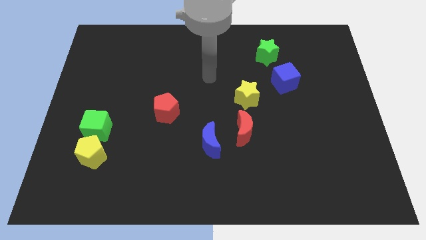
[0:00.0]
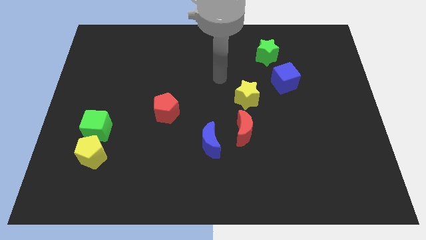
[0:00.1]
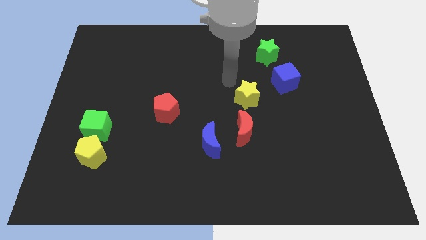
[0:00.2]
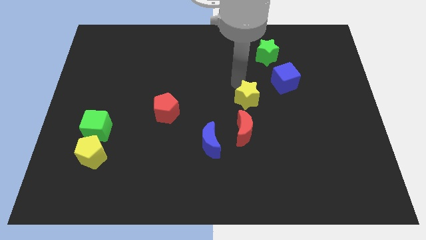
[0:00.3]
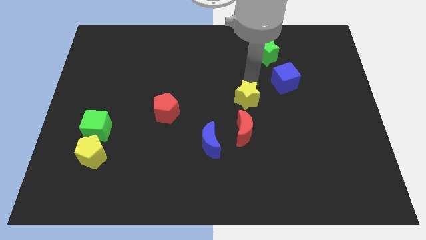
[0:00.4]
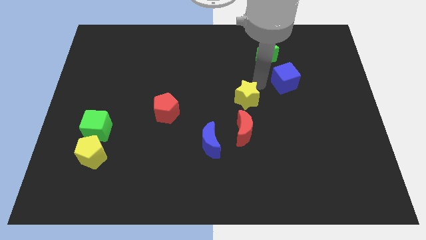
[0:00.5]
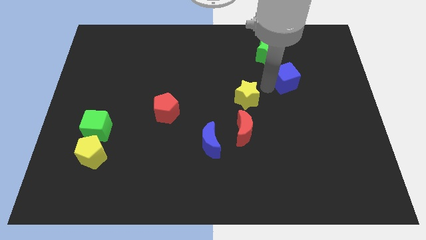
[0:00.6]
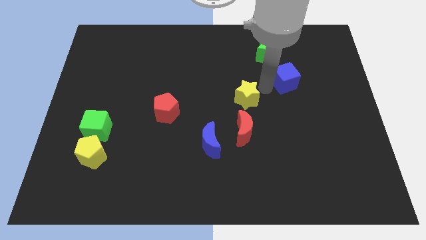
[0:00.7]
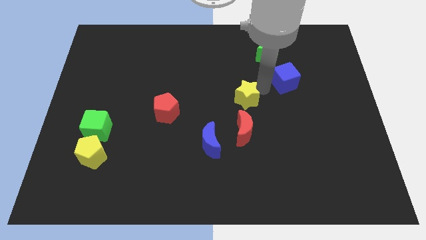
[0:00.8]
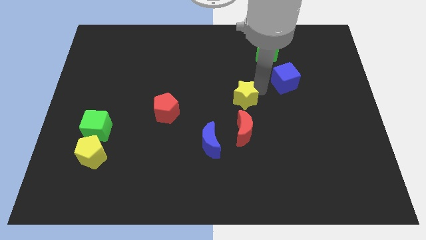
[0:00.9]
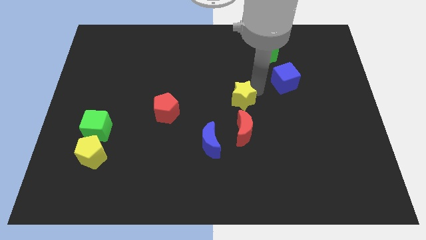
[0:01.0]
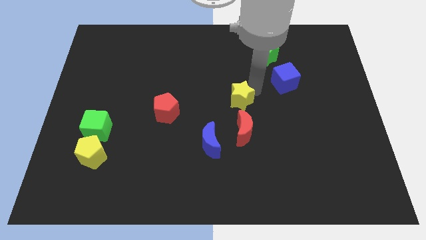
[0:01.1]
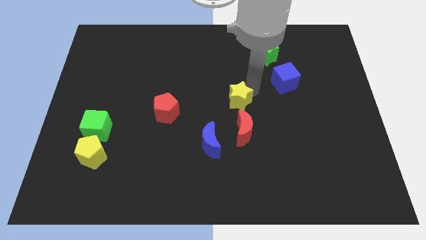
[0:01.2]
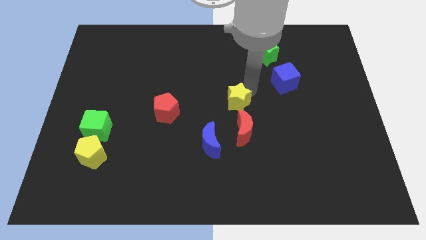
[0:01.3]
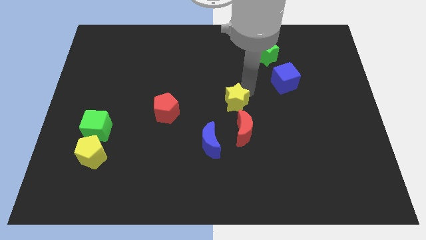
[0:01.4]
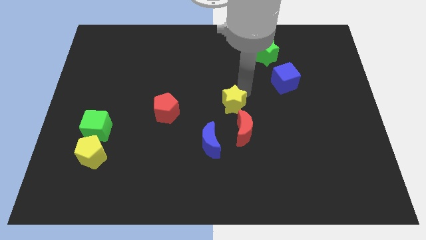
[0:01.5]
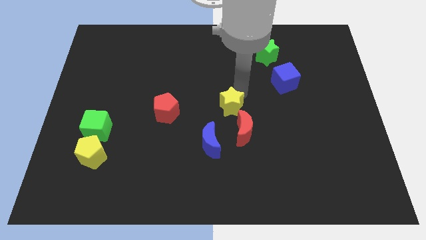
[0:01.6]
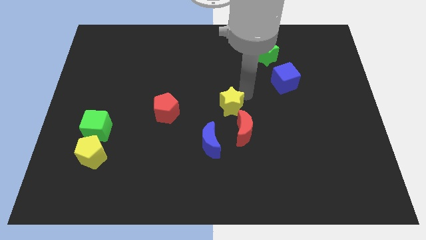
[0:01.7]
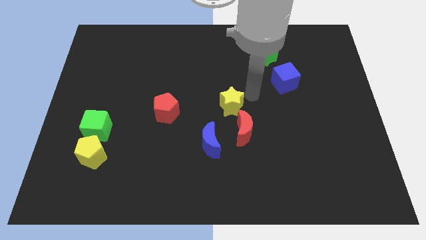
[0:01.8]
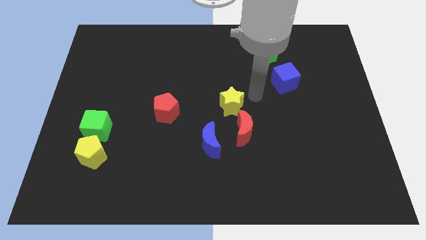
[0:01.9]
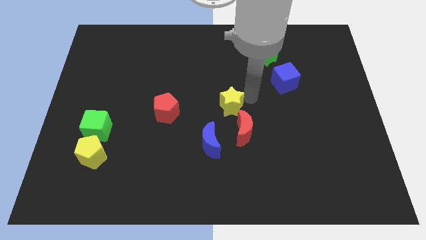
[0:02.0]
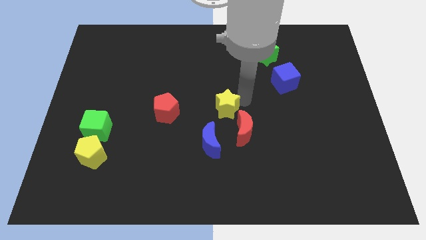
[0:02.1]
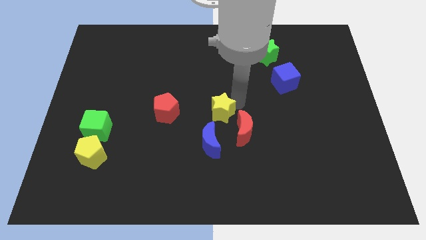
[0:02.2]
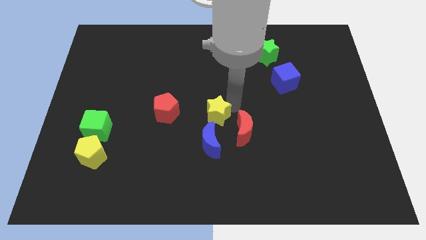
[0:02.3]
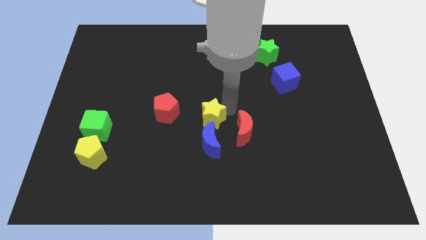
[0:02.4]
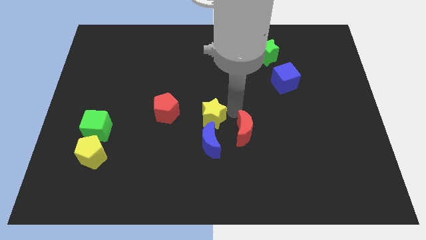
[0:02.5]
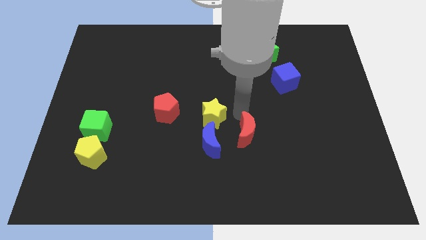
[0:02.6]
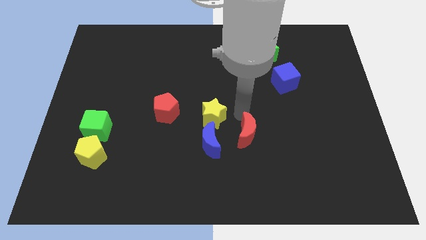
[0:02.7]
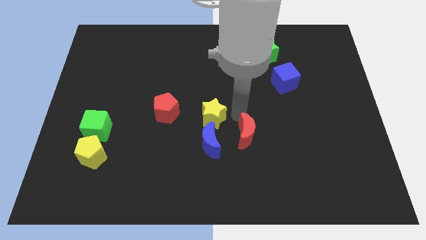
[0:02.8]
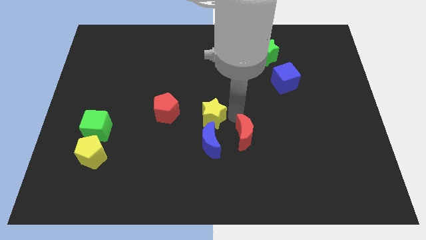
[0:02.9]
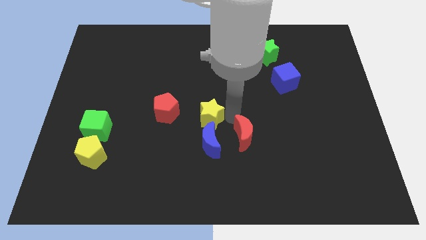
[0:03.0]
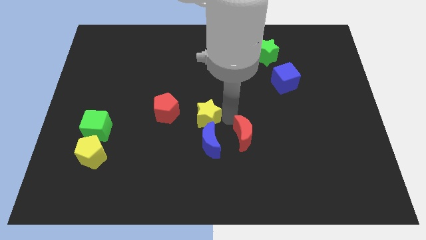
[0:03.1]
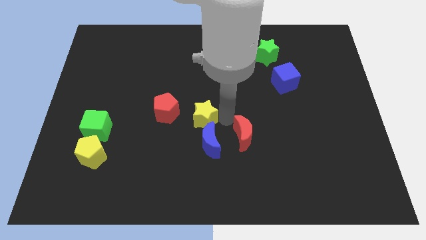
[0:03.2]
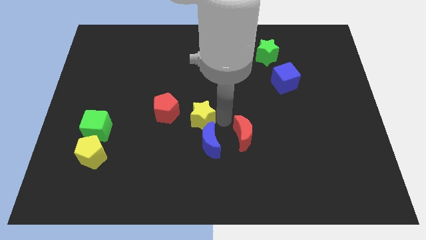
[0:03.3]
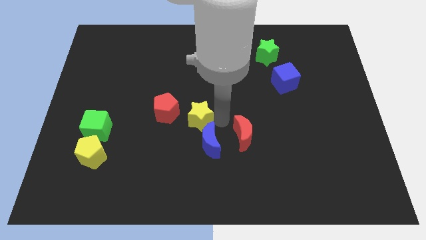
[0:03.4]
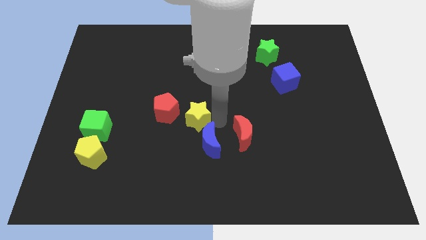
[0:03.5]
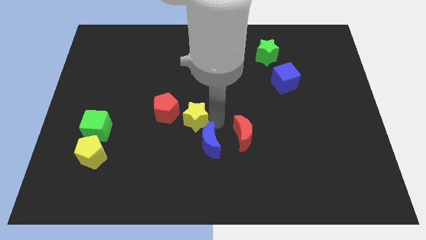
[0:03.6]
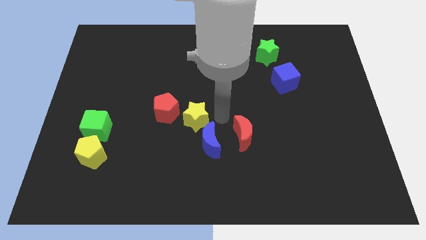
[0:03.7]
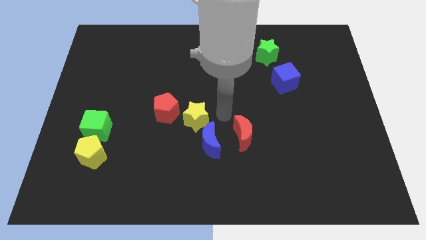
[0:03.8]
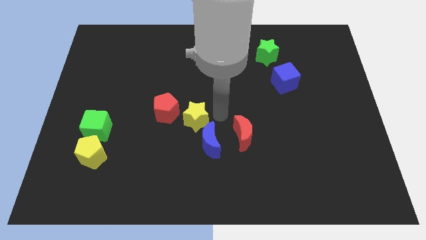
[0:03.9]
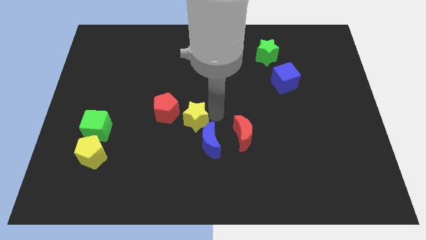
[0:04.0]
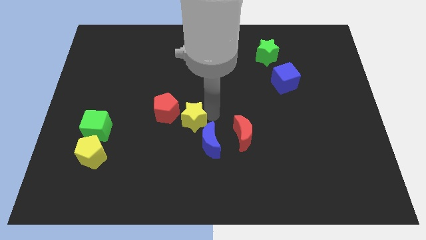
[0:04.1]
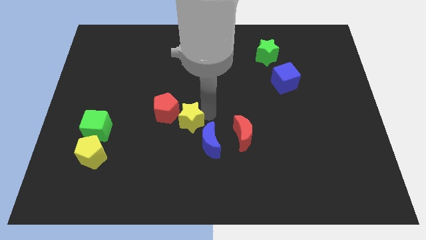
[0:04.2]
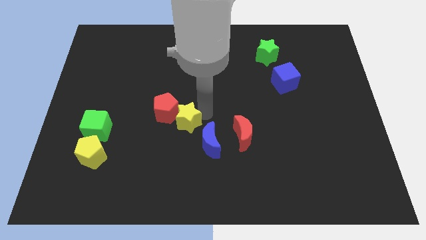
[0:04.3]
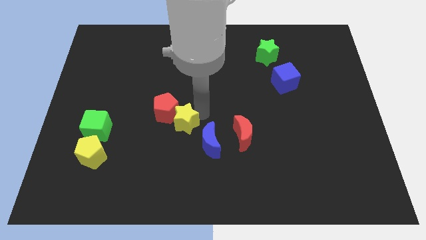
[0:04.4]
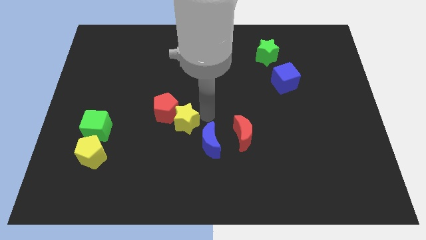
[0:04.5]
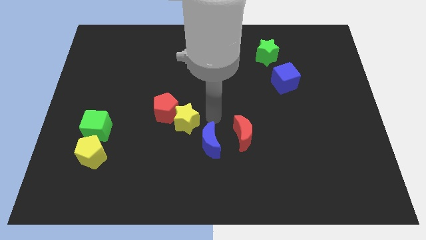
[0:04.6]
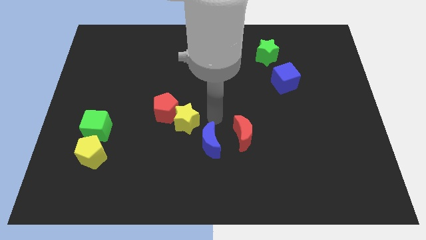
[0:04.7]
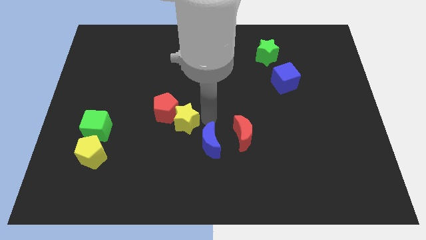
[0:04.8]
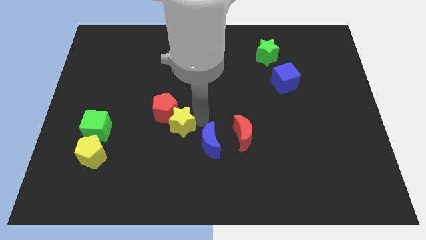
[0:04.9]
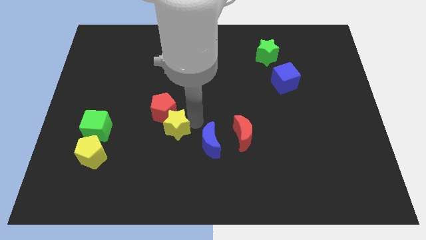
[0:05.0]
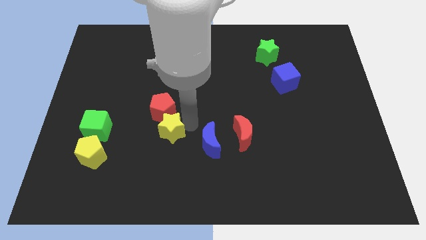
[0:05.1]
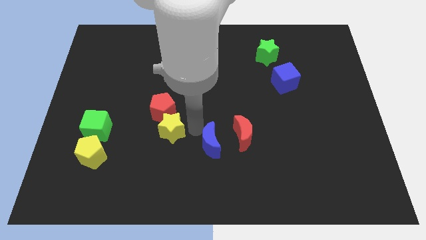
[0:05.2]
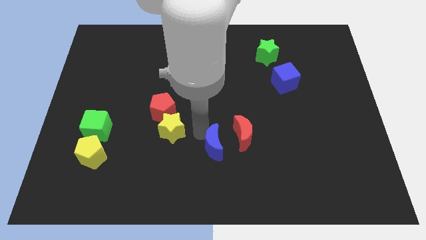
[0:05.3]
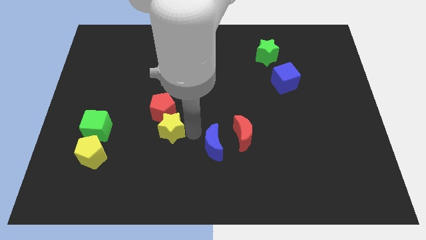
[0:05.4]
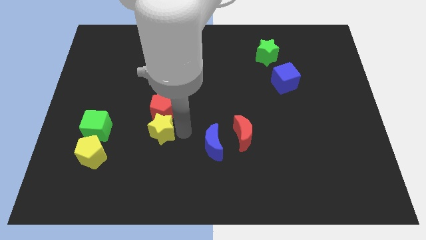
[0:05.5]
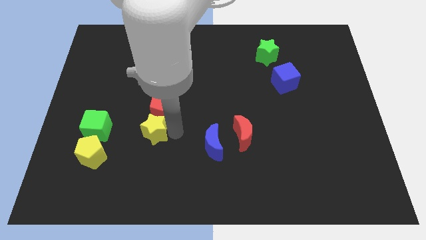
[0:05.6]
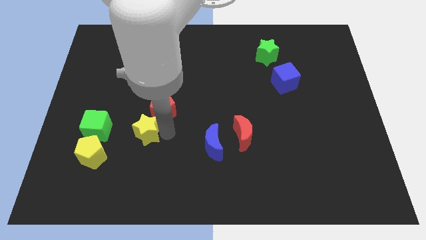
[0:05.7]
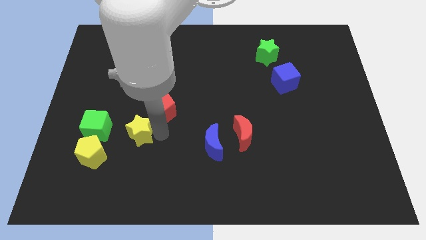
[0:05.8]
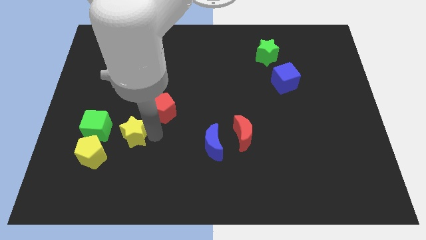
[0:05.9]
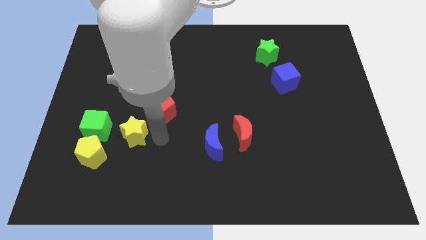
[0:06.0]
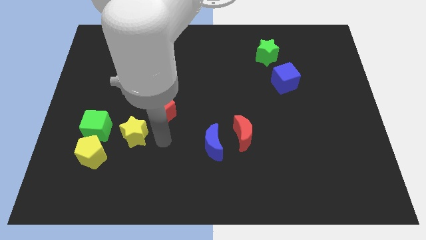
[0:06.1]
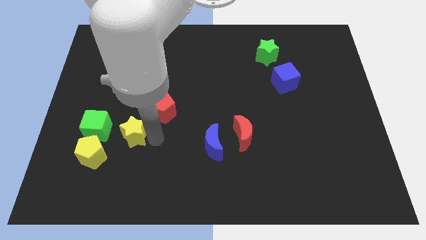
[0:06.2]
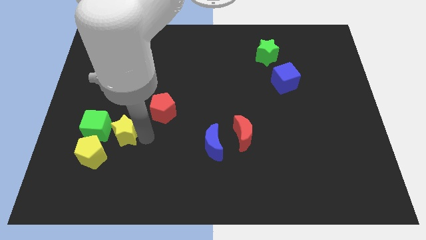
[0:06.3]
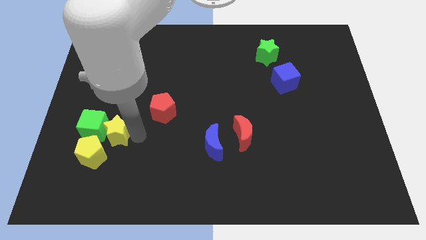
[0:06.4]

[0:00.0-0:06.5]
put the yellow star to the green cube

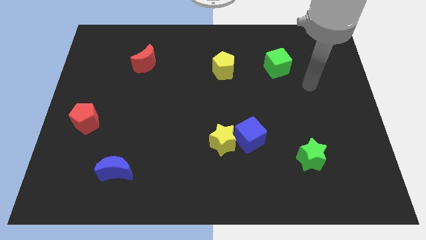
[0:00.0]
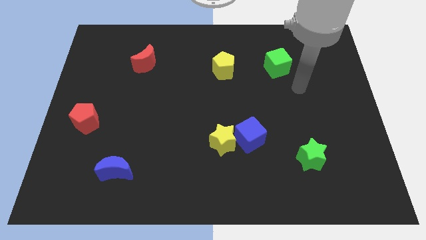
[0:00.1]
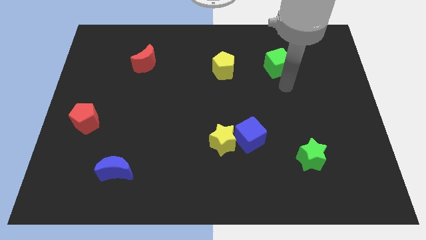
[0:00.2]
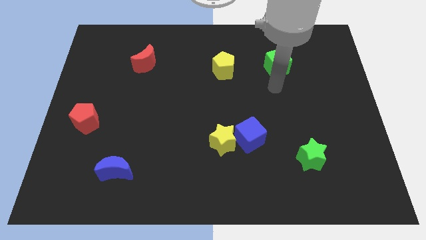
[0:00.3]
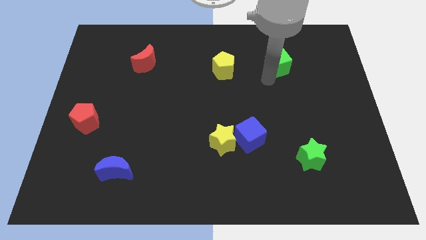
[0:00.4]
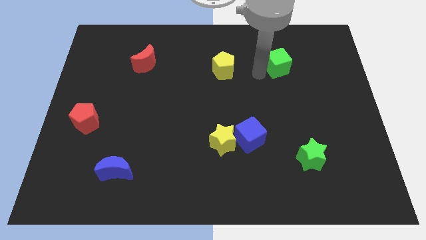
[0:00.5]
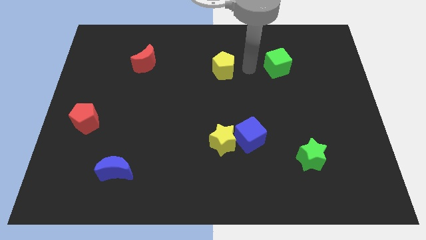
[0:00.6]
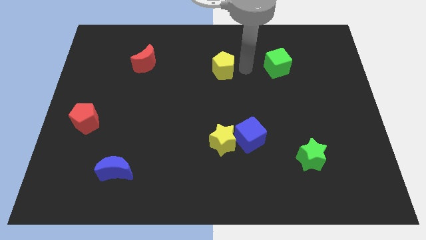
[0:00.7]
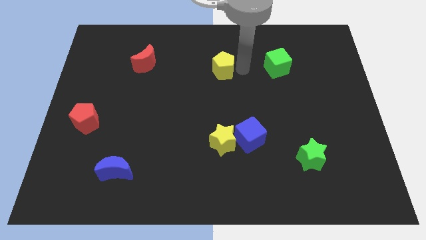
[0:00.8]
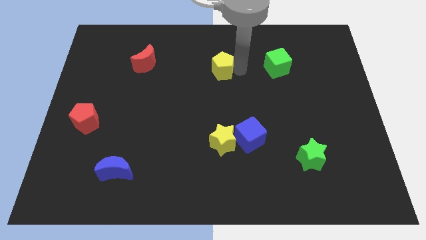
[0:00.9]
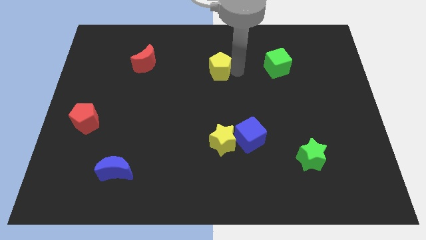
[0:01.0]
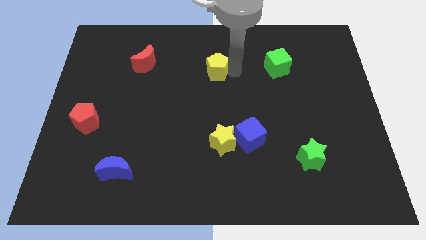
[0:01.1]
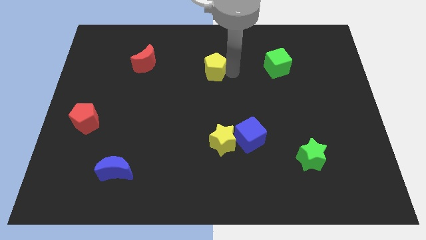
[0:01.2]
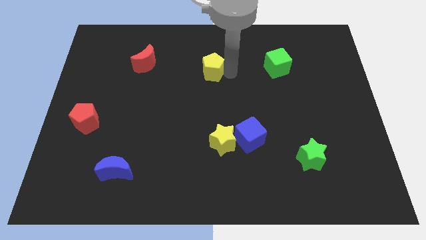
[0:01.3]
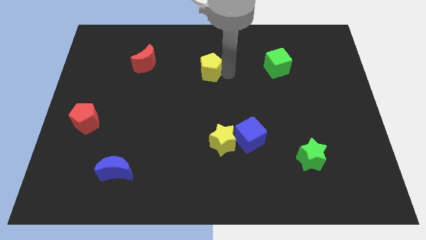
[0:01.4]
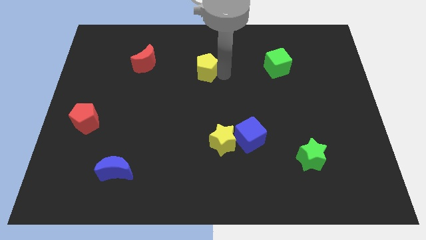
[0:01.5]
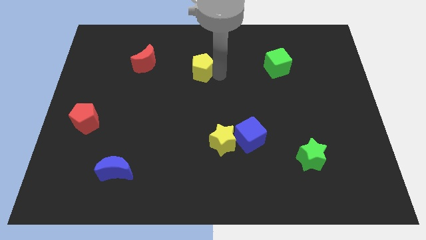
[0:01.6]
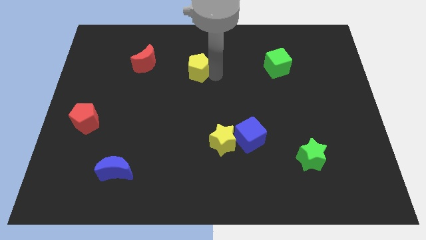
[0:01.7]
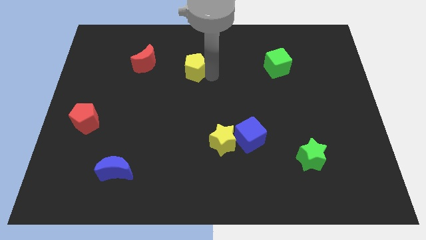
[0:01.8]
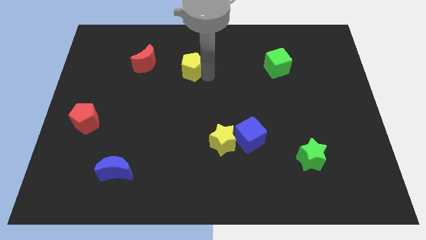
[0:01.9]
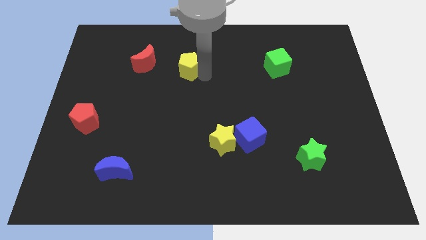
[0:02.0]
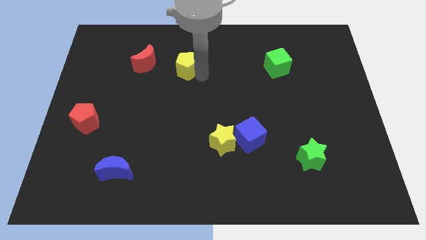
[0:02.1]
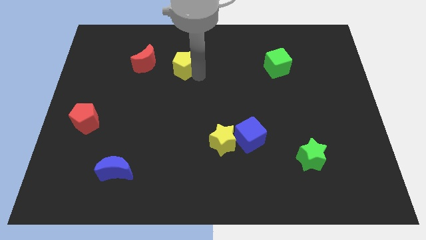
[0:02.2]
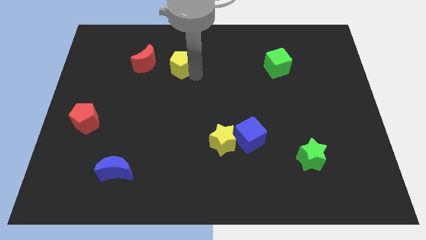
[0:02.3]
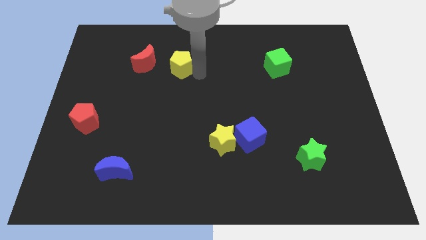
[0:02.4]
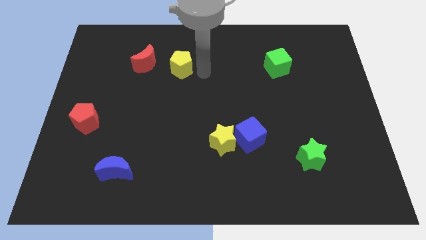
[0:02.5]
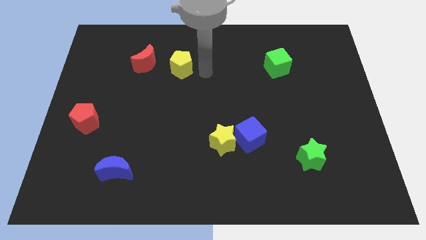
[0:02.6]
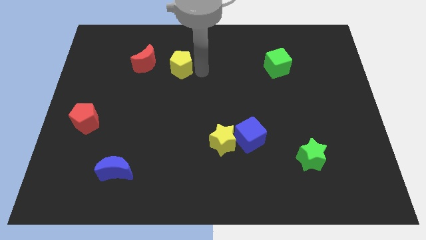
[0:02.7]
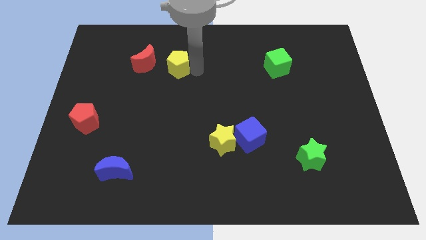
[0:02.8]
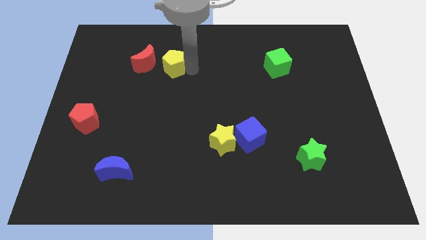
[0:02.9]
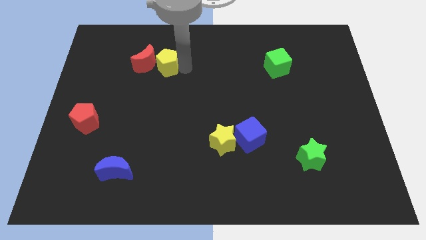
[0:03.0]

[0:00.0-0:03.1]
put the yellow pentagon next to the red moon
